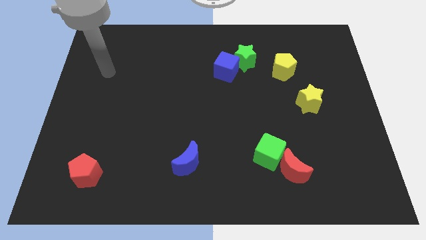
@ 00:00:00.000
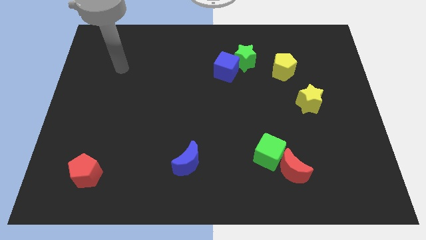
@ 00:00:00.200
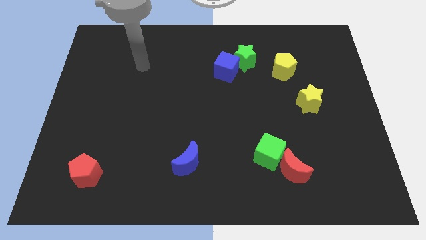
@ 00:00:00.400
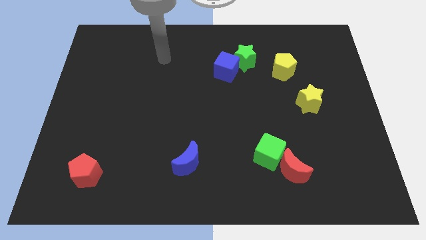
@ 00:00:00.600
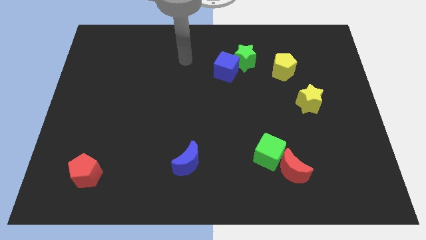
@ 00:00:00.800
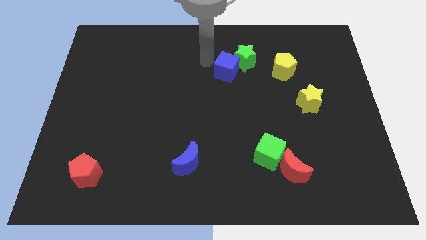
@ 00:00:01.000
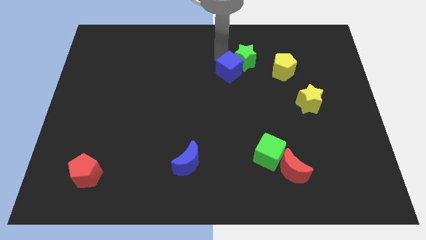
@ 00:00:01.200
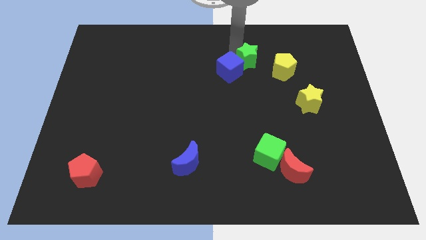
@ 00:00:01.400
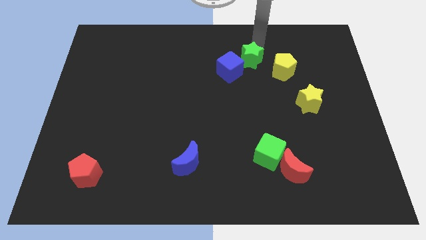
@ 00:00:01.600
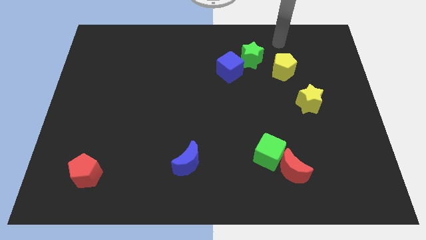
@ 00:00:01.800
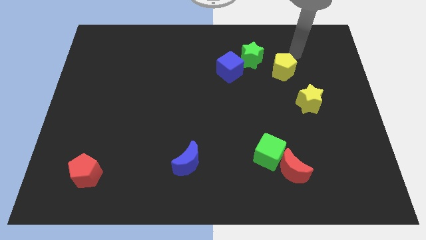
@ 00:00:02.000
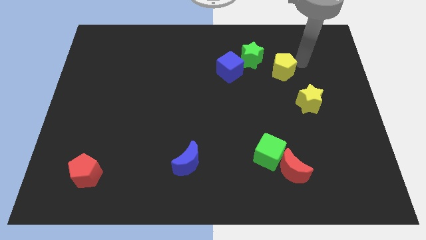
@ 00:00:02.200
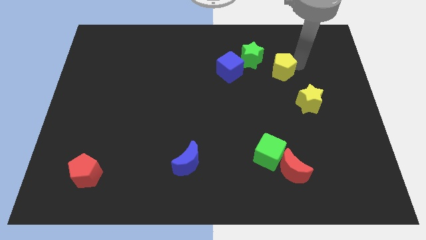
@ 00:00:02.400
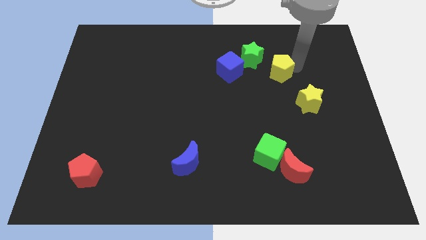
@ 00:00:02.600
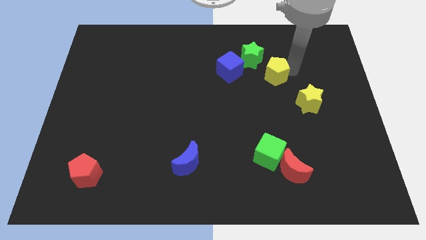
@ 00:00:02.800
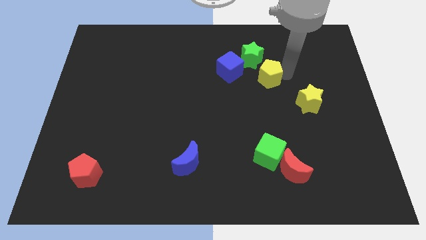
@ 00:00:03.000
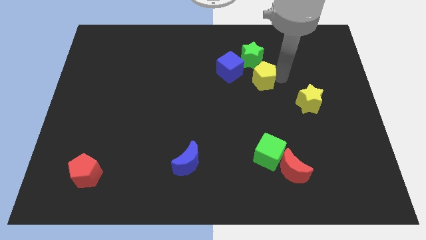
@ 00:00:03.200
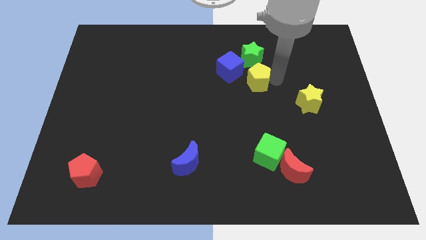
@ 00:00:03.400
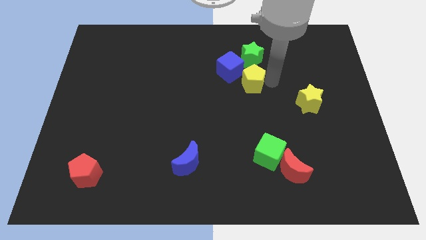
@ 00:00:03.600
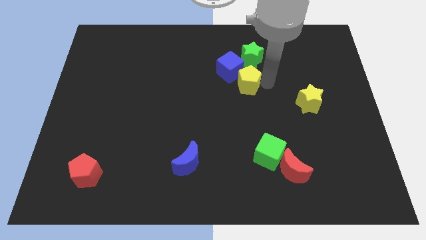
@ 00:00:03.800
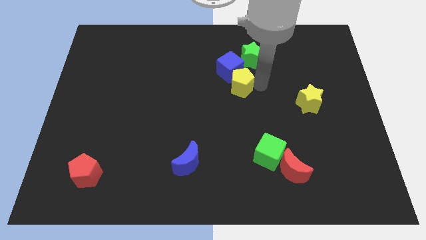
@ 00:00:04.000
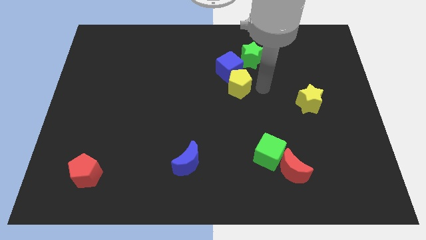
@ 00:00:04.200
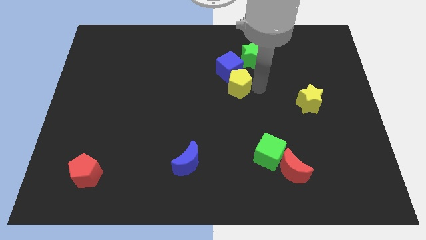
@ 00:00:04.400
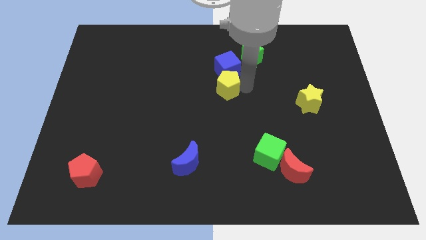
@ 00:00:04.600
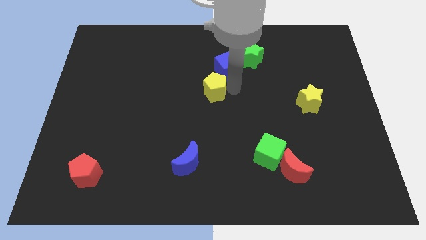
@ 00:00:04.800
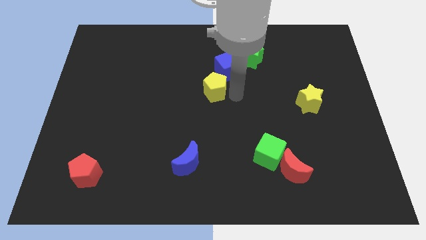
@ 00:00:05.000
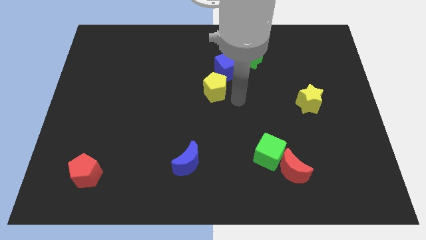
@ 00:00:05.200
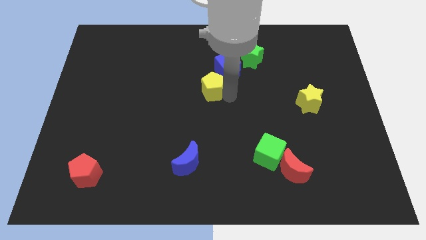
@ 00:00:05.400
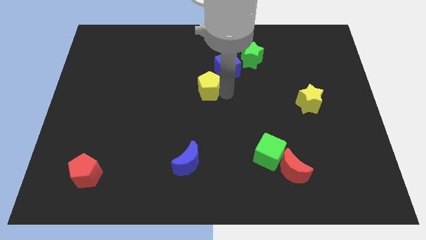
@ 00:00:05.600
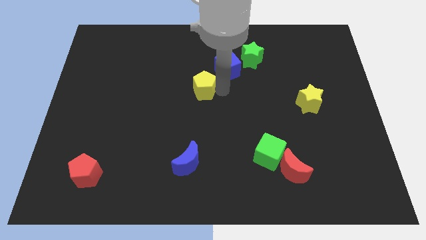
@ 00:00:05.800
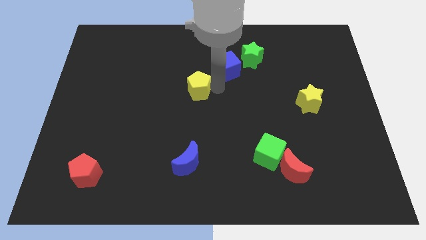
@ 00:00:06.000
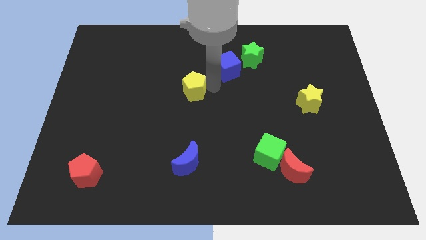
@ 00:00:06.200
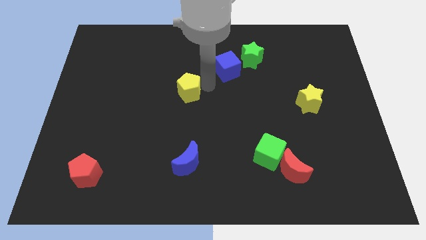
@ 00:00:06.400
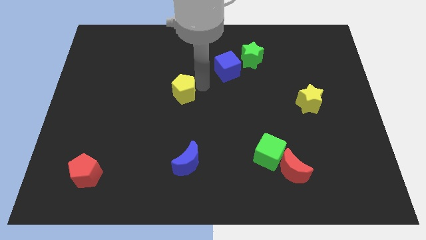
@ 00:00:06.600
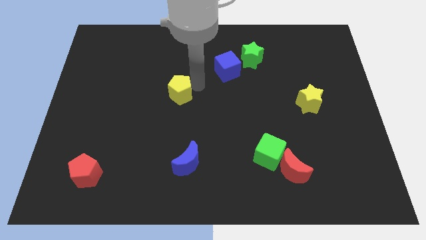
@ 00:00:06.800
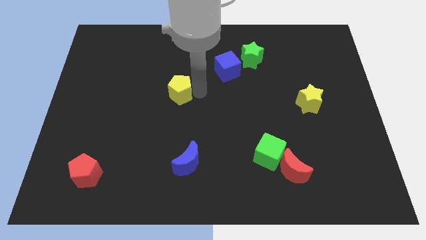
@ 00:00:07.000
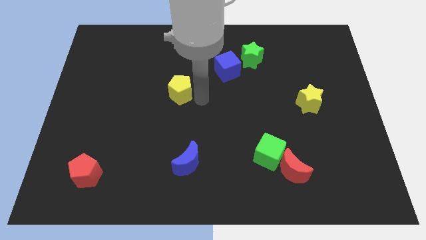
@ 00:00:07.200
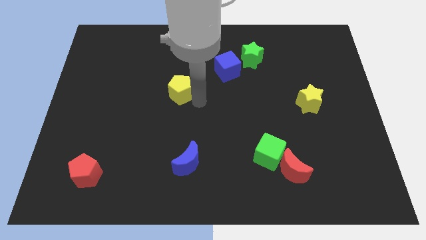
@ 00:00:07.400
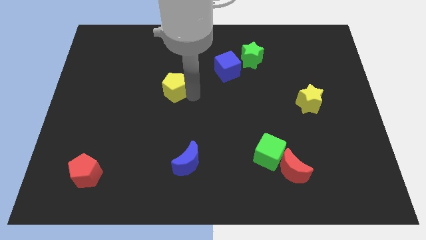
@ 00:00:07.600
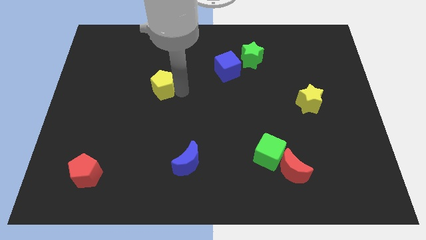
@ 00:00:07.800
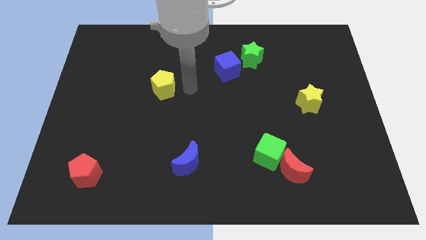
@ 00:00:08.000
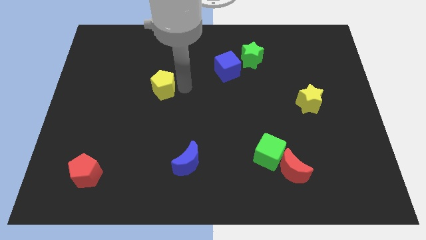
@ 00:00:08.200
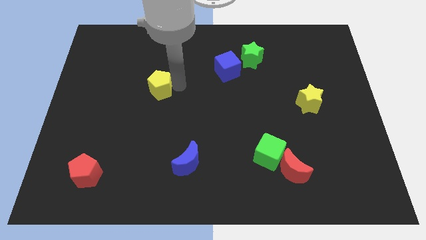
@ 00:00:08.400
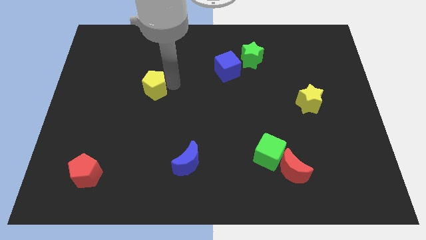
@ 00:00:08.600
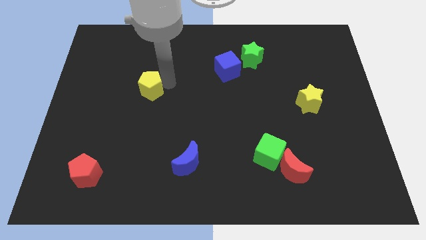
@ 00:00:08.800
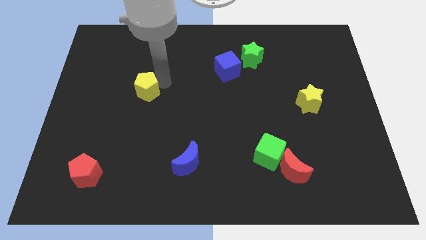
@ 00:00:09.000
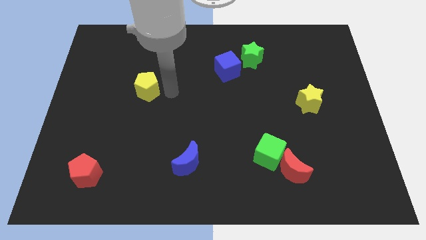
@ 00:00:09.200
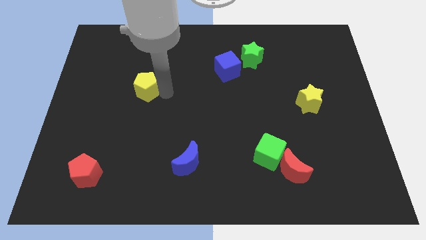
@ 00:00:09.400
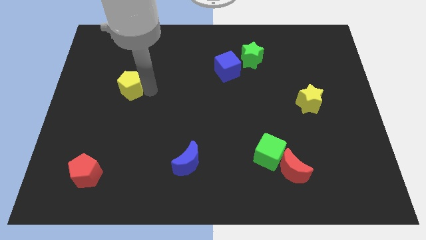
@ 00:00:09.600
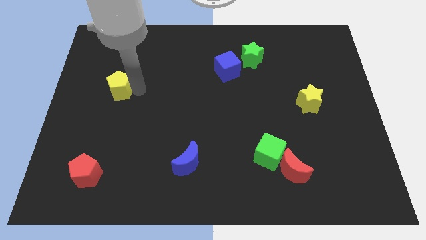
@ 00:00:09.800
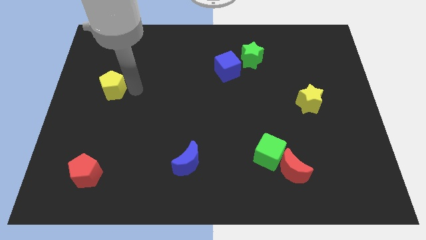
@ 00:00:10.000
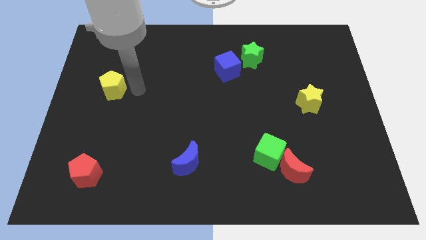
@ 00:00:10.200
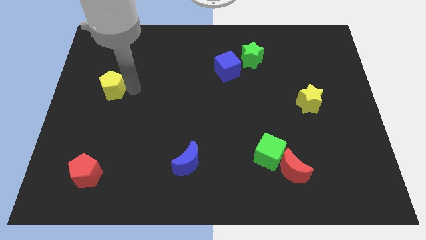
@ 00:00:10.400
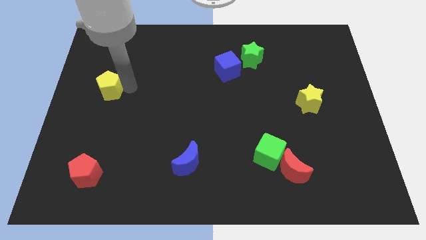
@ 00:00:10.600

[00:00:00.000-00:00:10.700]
put the yellow pentagon to the center left

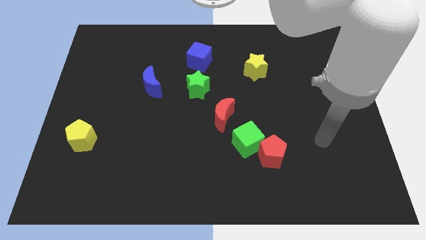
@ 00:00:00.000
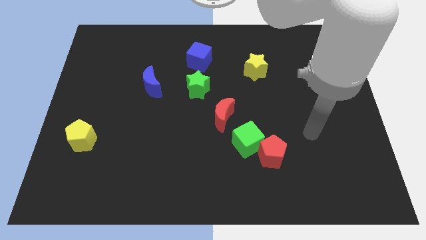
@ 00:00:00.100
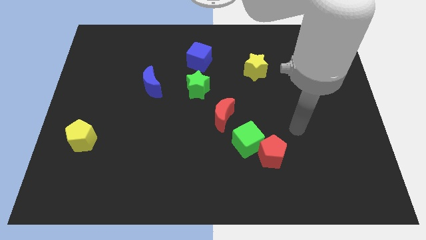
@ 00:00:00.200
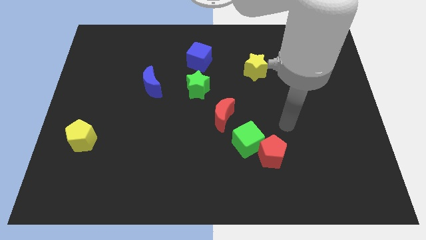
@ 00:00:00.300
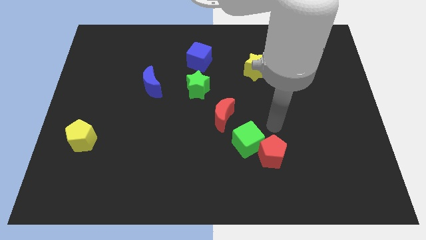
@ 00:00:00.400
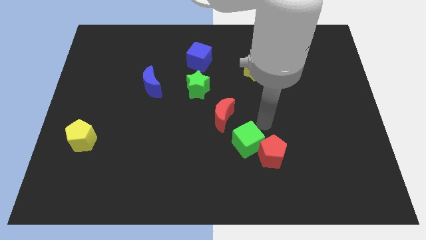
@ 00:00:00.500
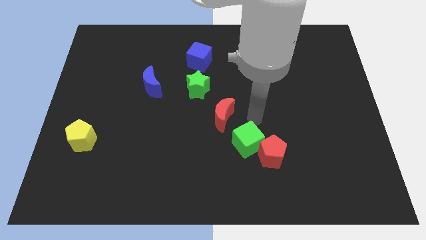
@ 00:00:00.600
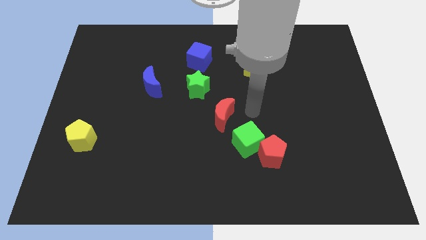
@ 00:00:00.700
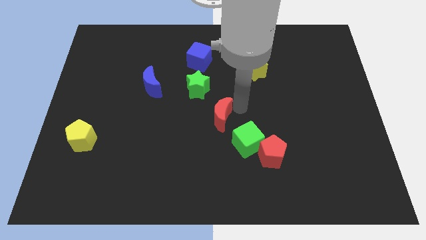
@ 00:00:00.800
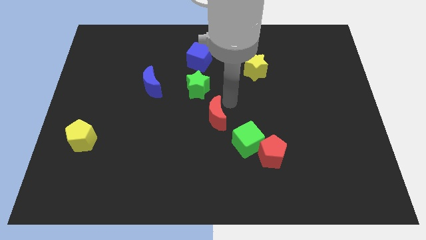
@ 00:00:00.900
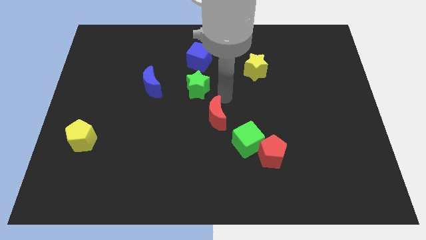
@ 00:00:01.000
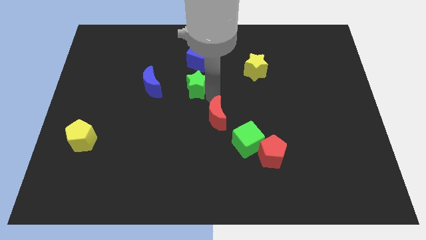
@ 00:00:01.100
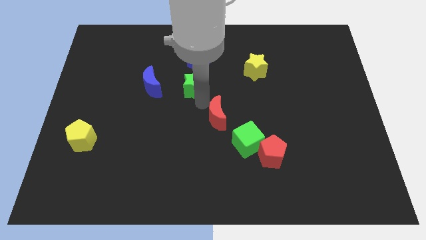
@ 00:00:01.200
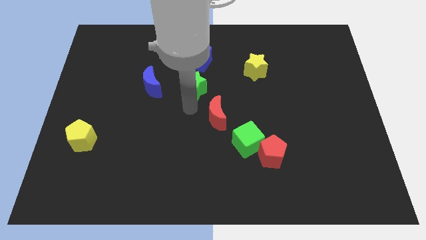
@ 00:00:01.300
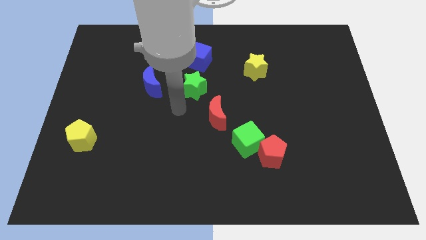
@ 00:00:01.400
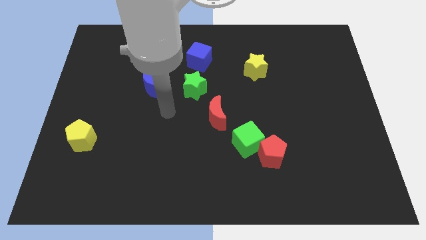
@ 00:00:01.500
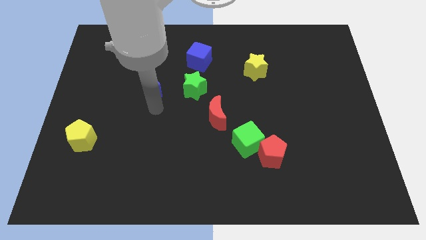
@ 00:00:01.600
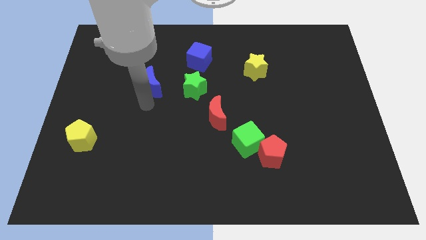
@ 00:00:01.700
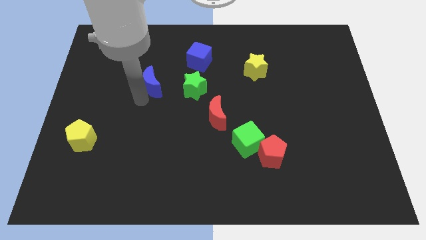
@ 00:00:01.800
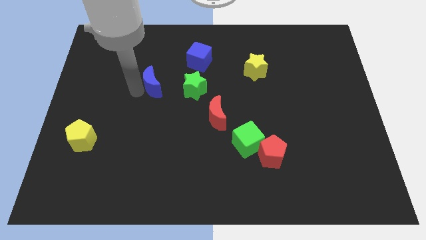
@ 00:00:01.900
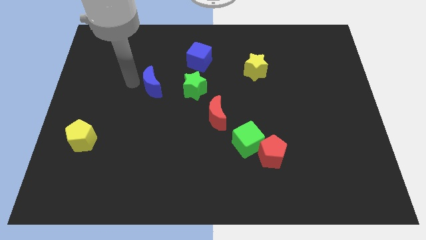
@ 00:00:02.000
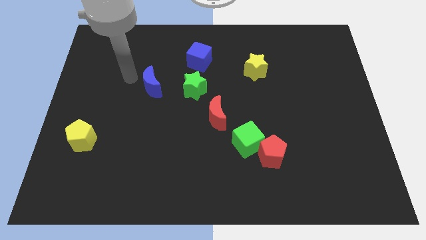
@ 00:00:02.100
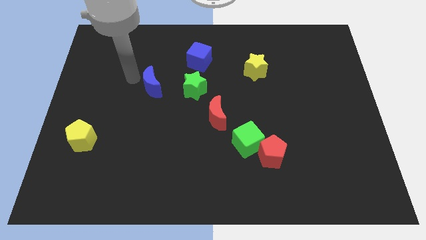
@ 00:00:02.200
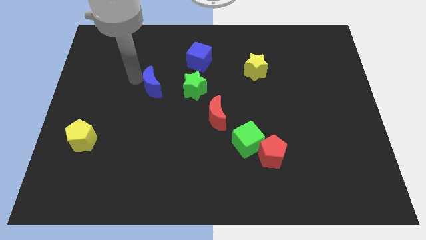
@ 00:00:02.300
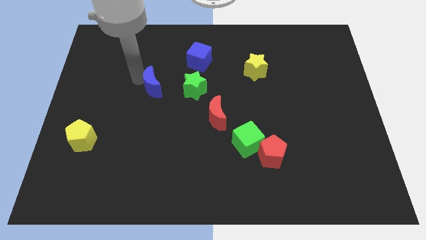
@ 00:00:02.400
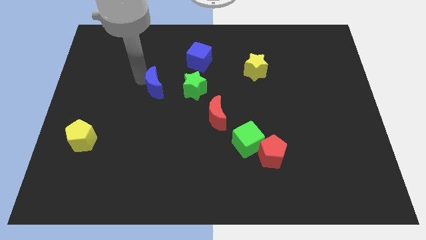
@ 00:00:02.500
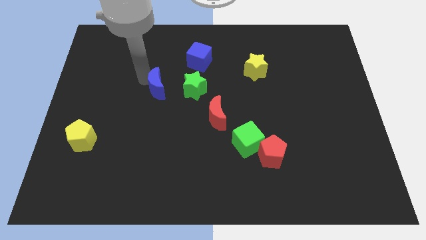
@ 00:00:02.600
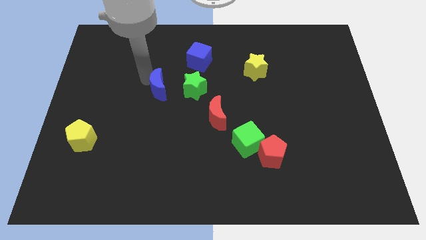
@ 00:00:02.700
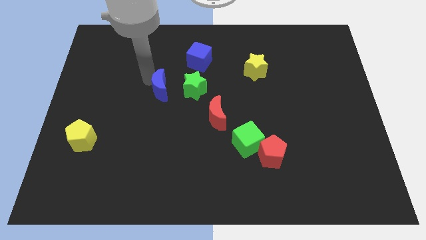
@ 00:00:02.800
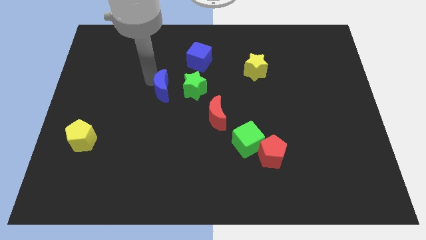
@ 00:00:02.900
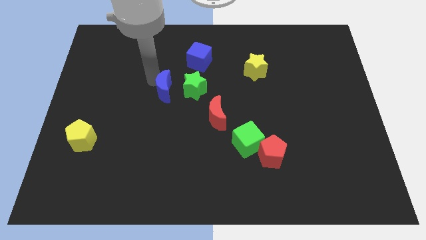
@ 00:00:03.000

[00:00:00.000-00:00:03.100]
move the blue moon to the center
